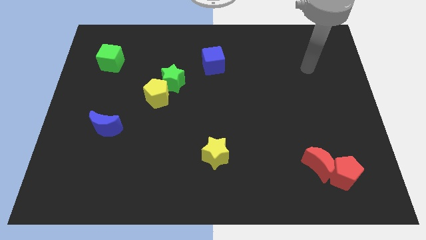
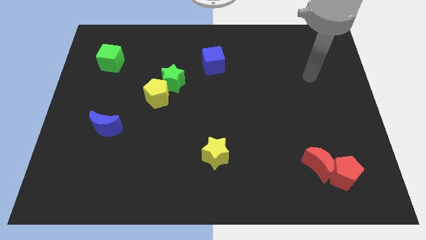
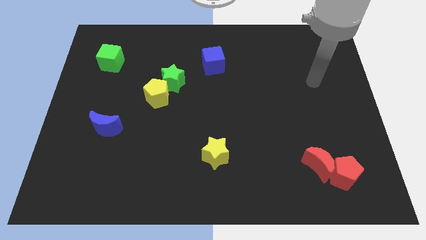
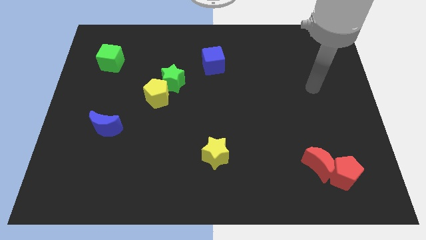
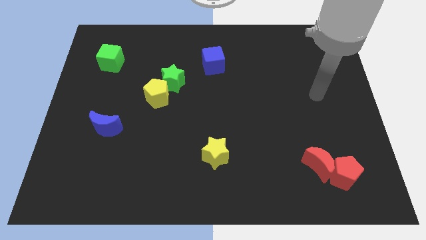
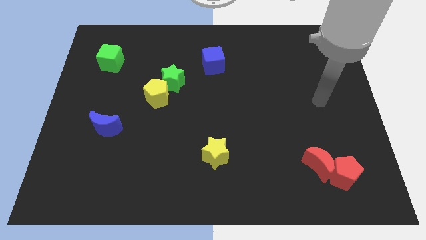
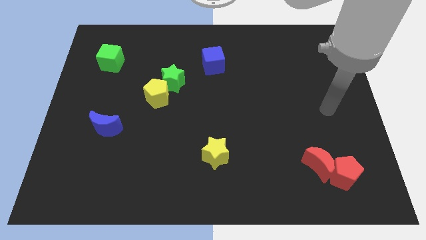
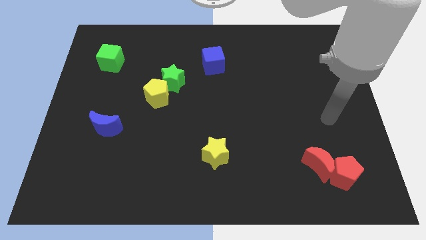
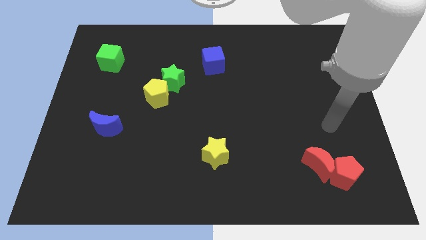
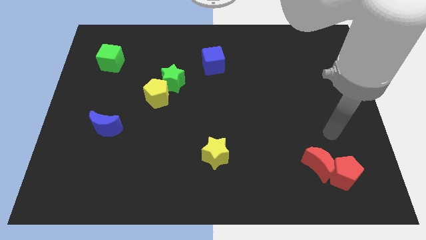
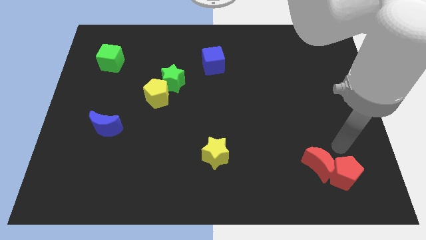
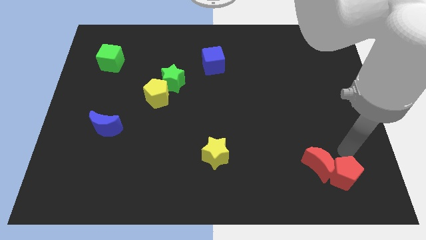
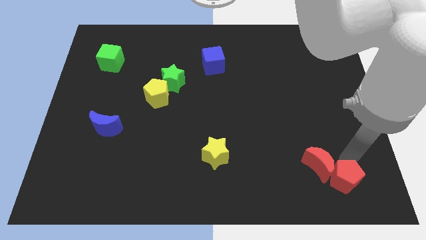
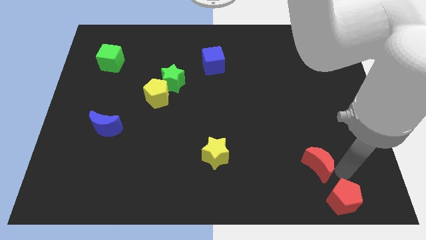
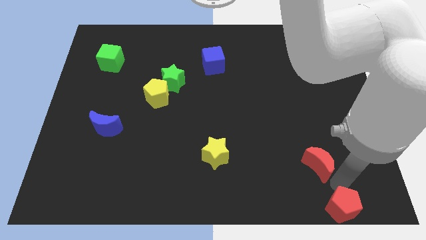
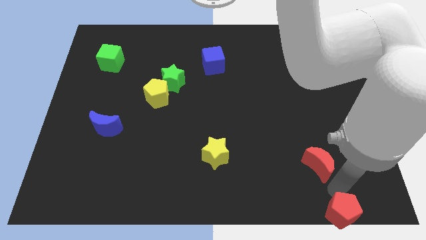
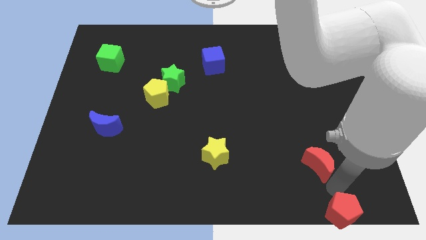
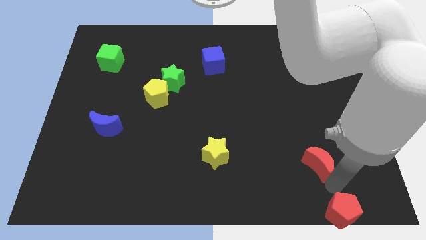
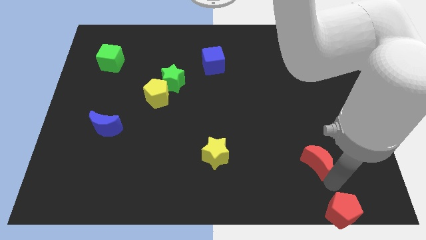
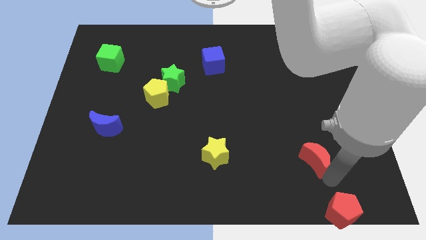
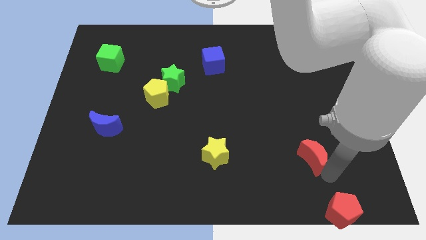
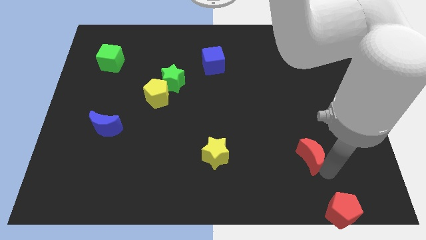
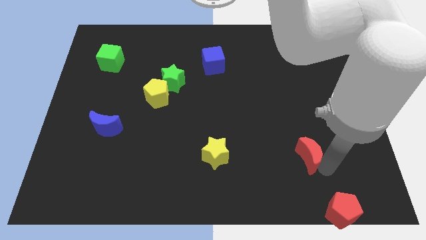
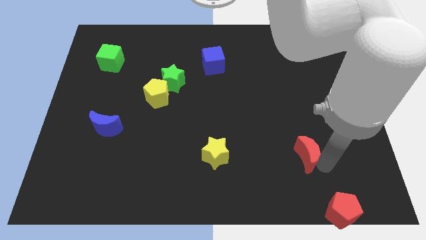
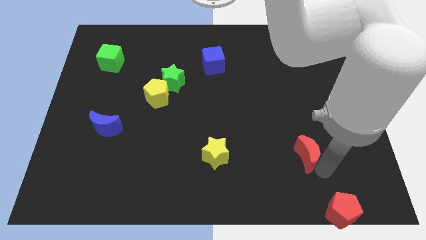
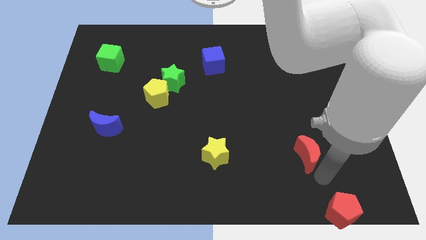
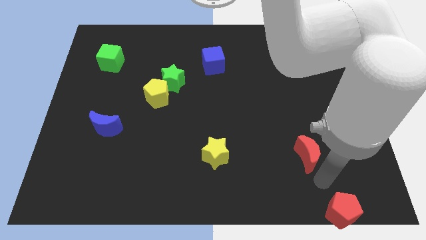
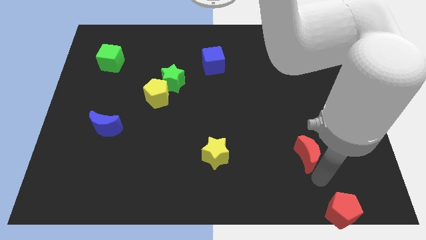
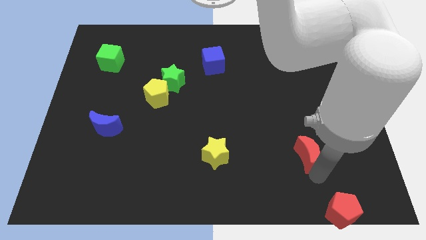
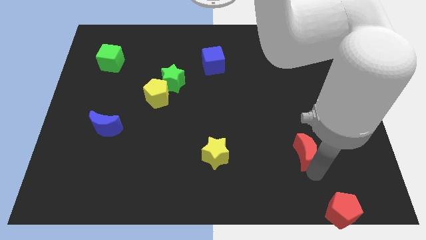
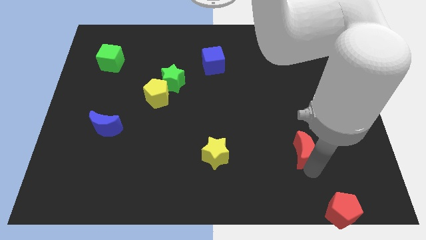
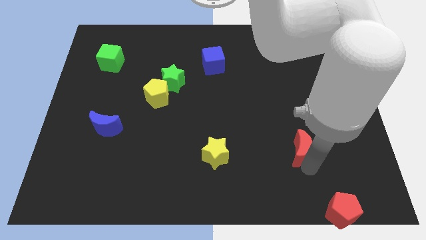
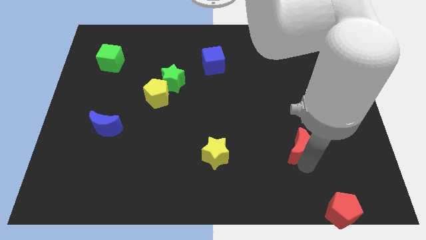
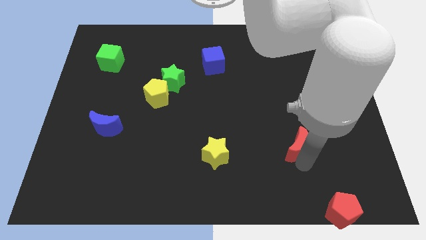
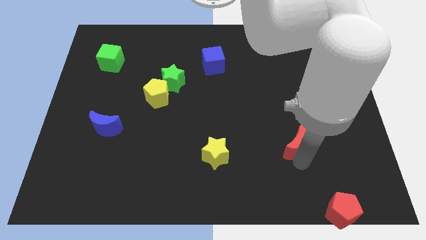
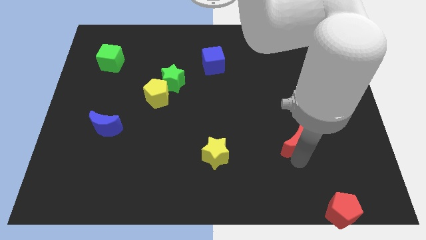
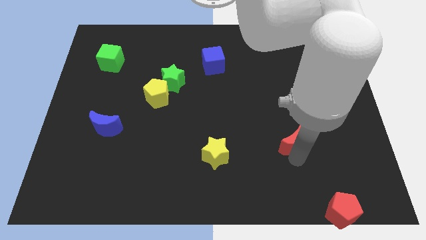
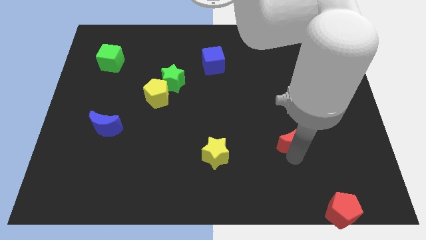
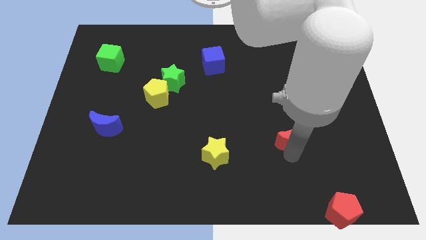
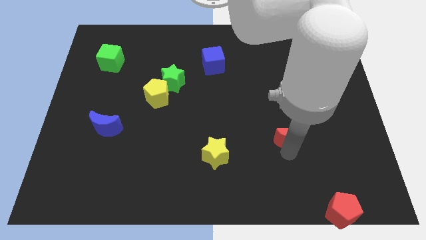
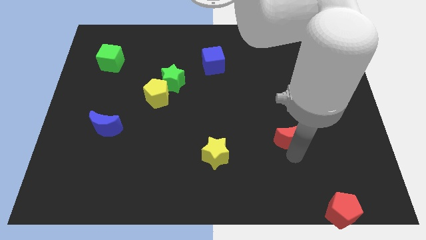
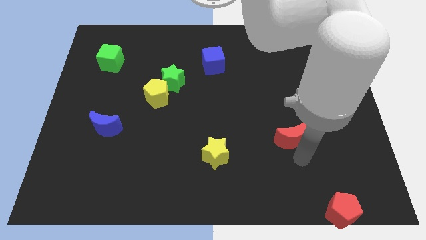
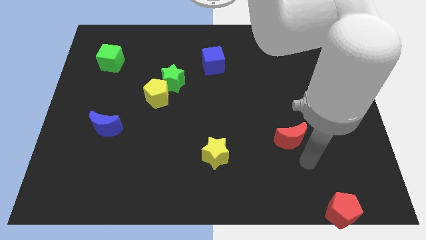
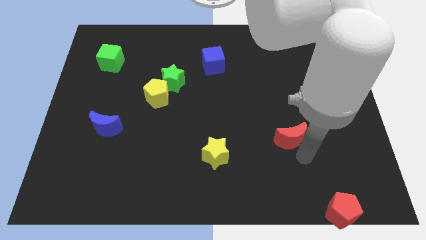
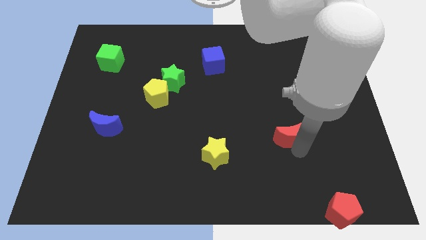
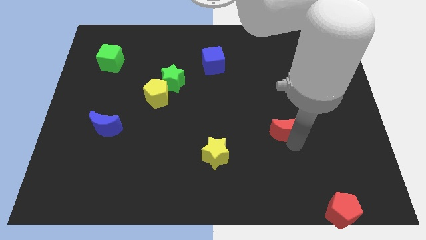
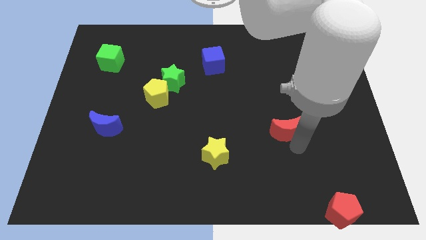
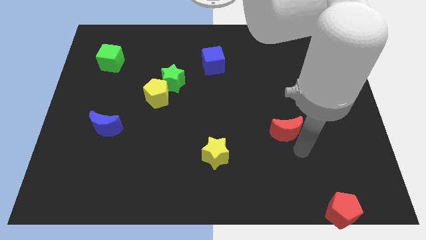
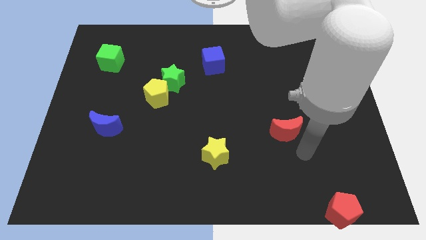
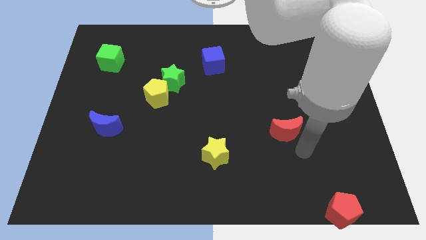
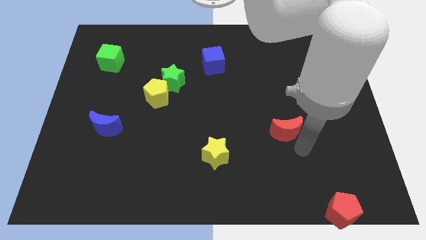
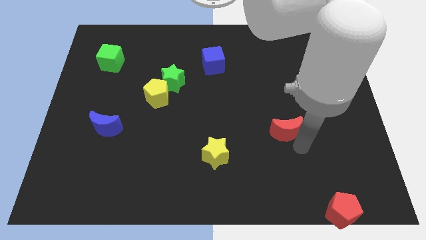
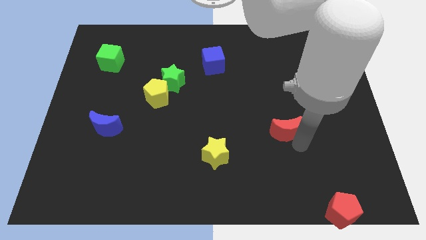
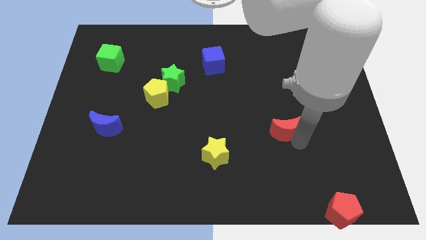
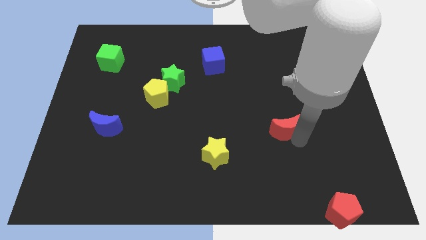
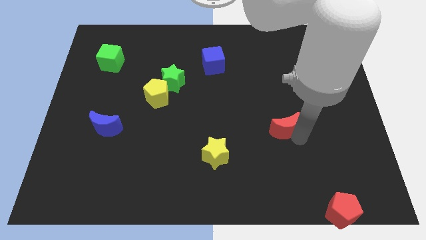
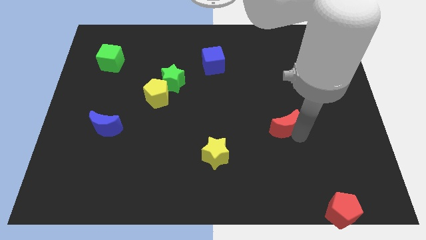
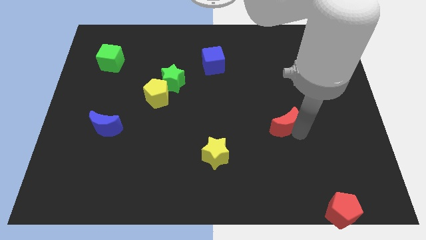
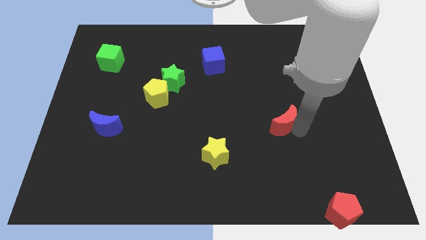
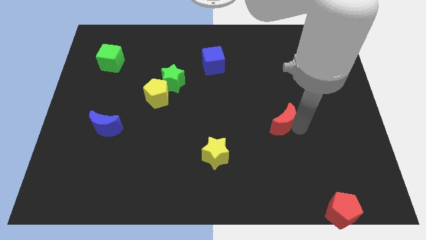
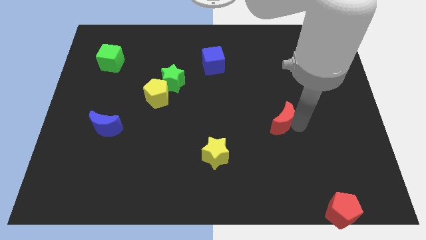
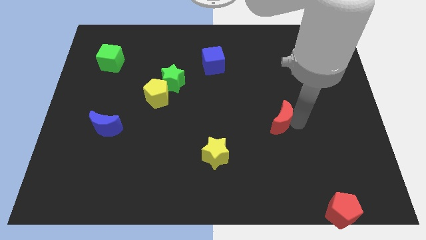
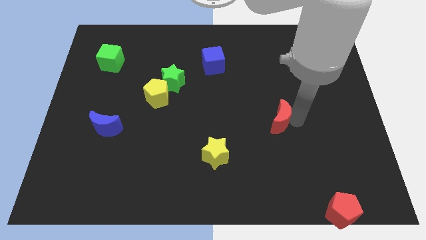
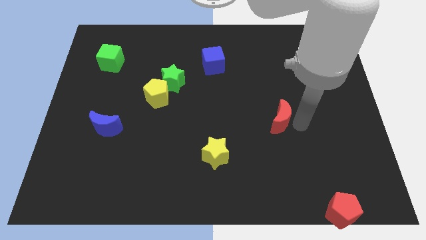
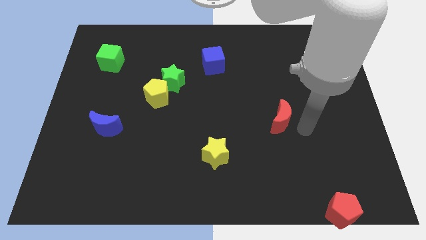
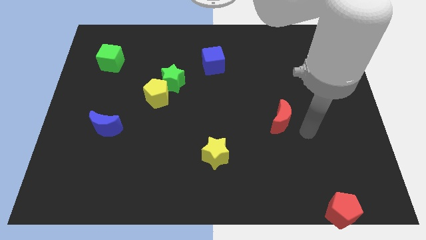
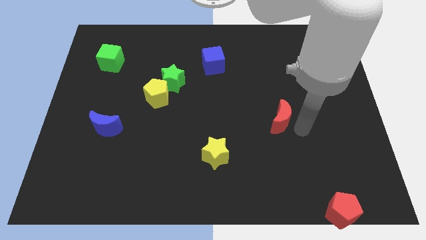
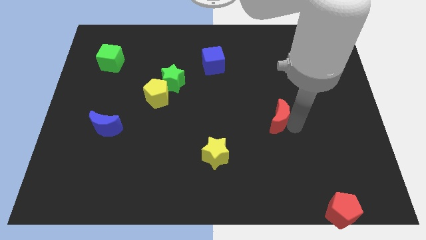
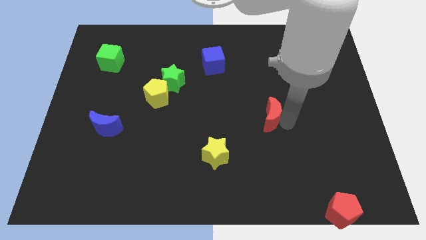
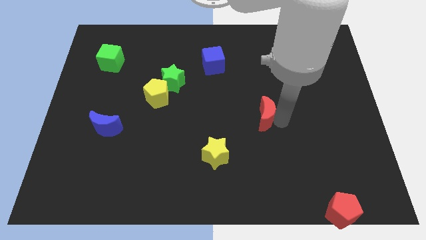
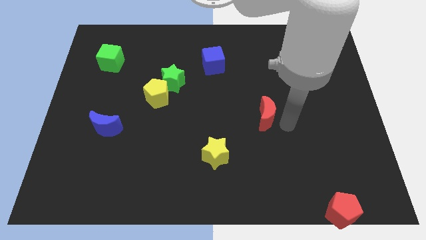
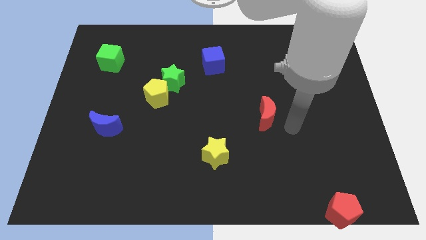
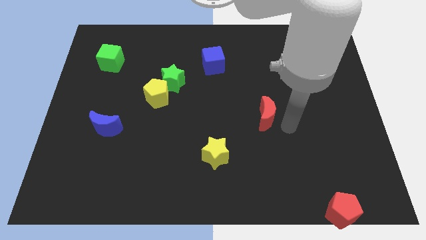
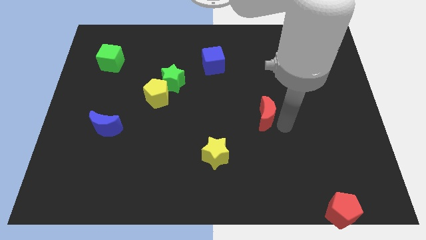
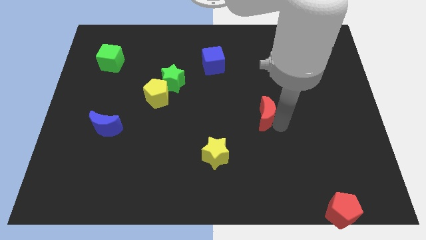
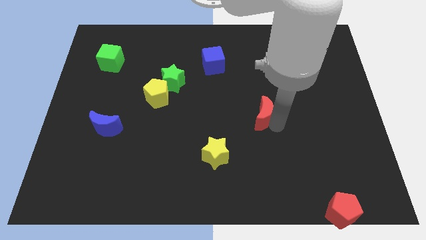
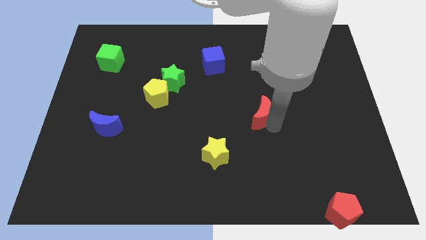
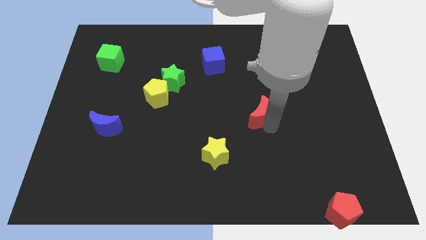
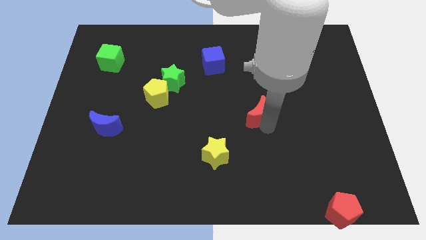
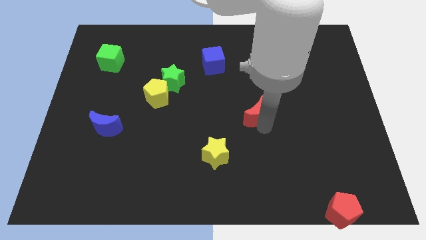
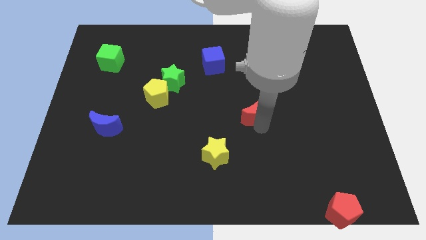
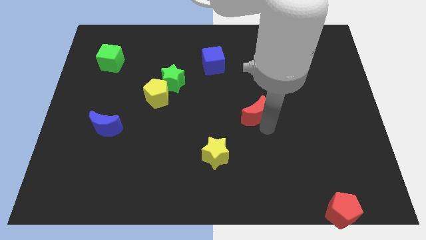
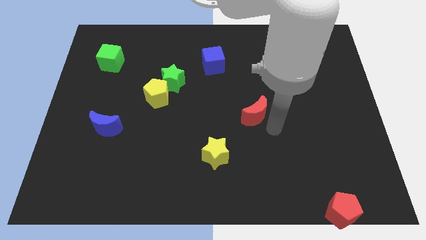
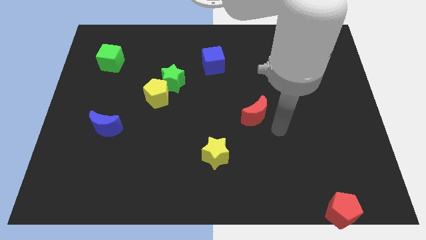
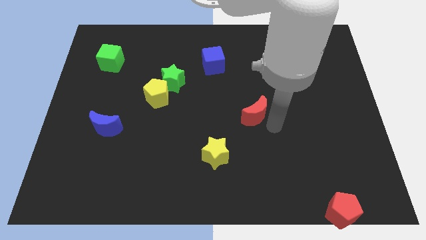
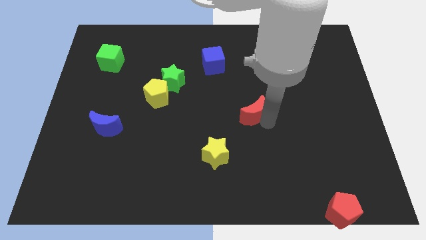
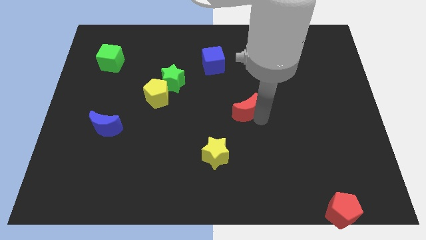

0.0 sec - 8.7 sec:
slide the red moon upwards and to the left diagonally
